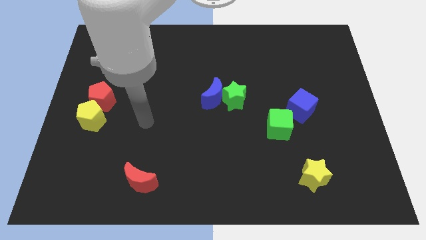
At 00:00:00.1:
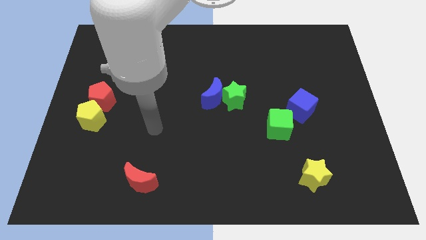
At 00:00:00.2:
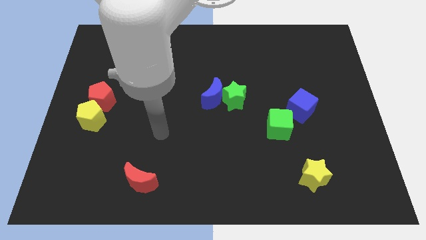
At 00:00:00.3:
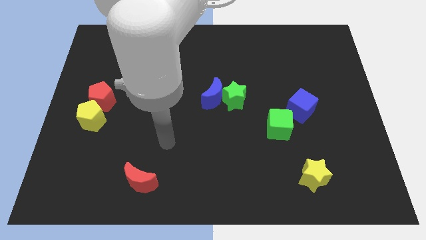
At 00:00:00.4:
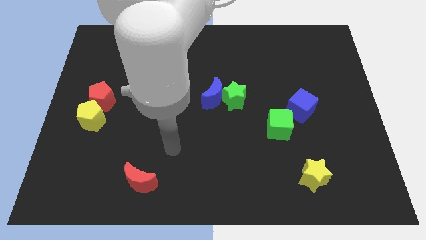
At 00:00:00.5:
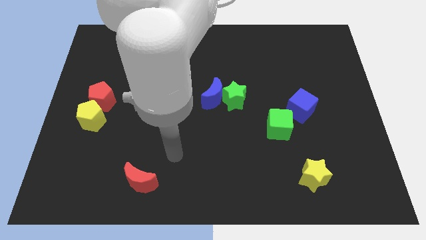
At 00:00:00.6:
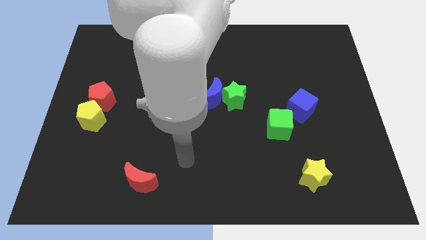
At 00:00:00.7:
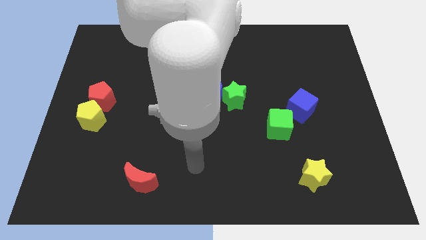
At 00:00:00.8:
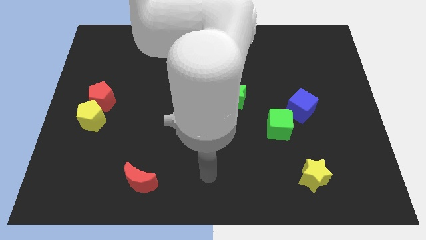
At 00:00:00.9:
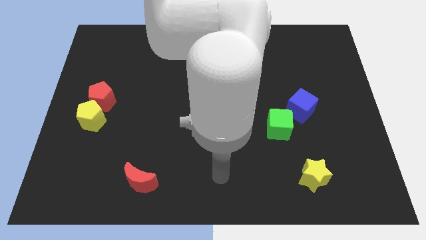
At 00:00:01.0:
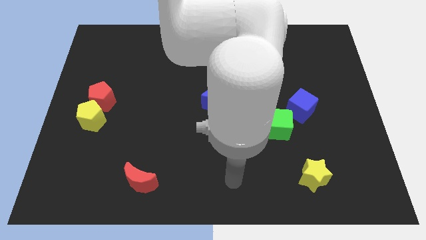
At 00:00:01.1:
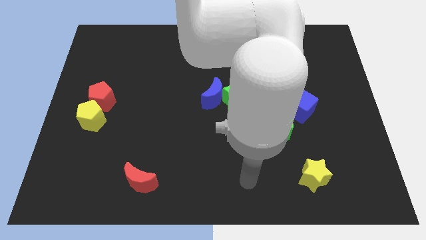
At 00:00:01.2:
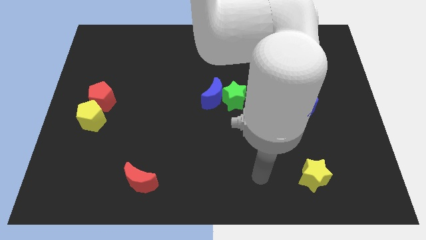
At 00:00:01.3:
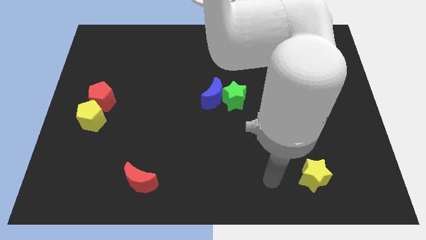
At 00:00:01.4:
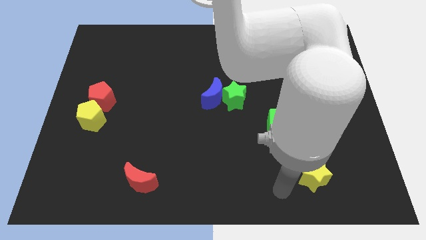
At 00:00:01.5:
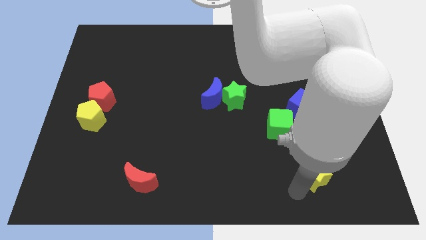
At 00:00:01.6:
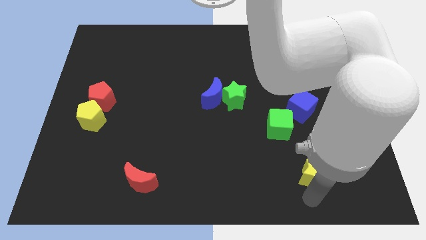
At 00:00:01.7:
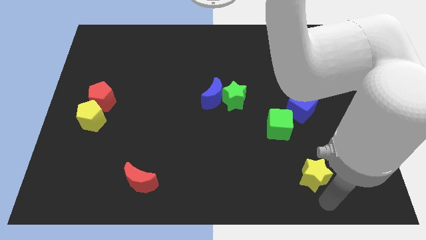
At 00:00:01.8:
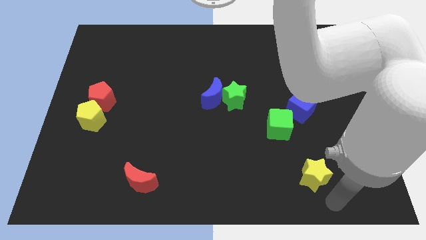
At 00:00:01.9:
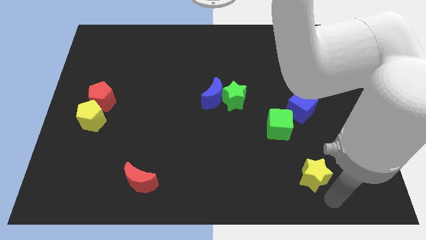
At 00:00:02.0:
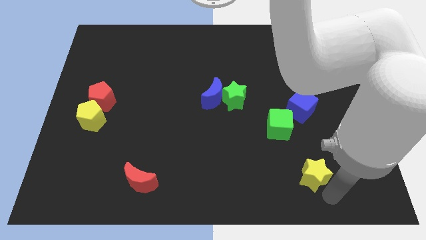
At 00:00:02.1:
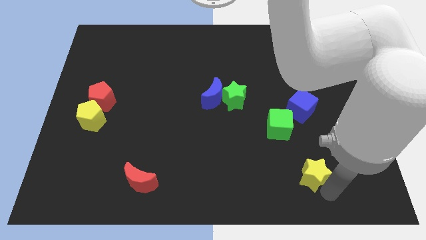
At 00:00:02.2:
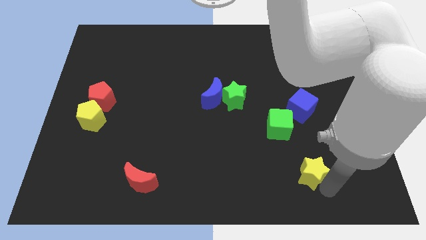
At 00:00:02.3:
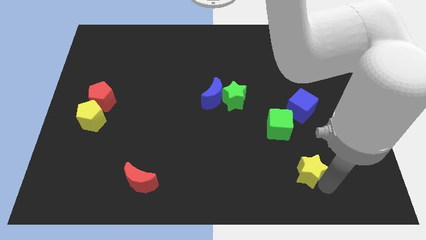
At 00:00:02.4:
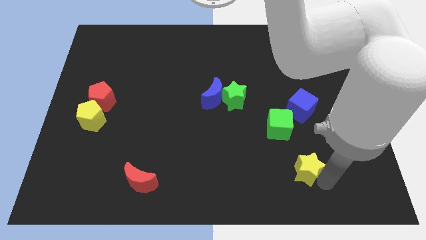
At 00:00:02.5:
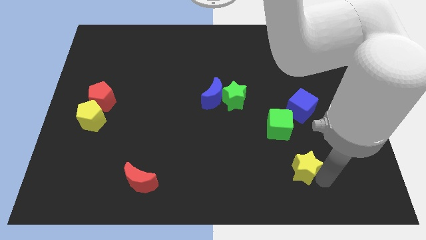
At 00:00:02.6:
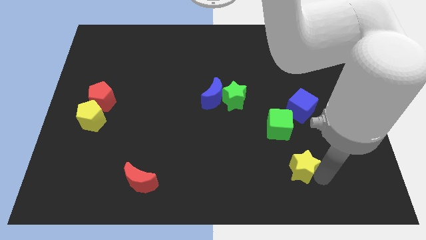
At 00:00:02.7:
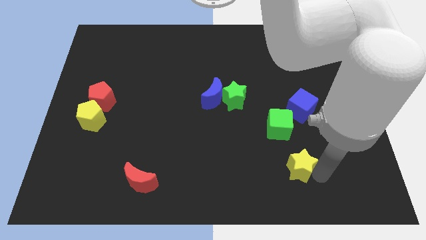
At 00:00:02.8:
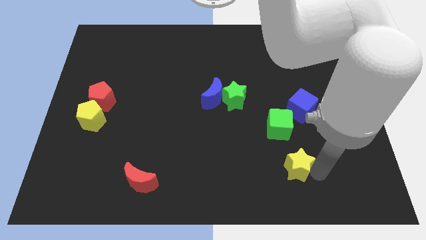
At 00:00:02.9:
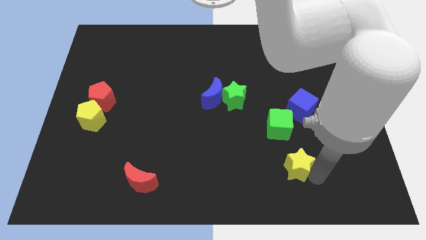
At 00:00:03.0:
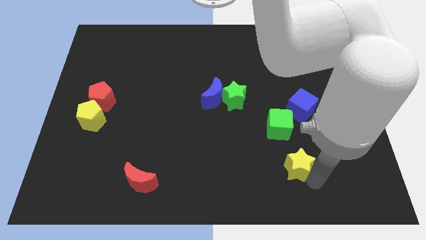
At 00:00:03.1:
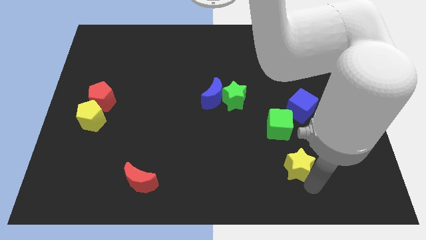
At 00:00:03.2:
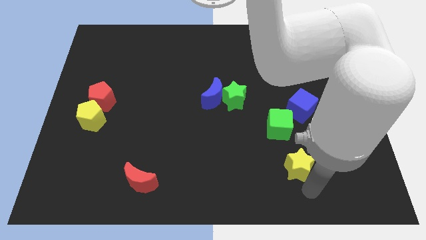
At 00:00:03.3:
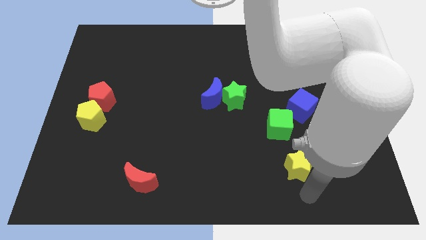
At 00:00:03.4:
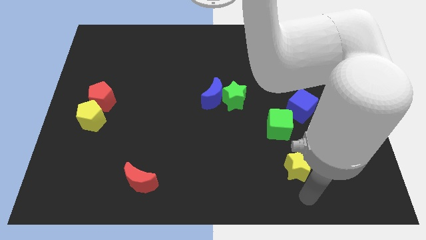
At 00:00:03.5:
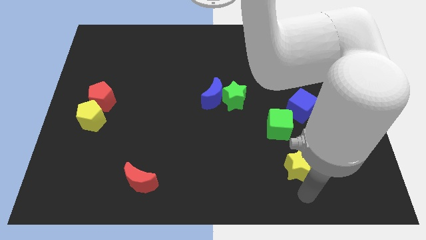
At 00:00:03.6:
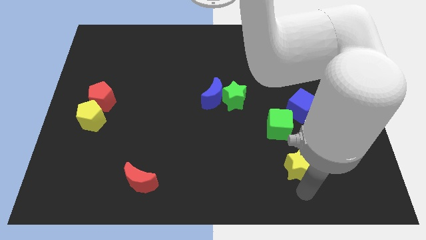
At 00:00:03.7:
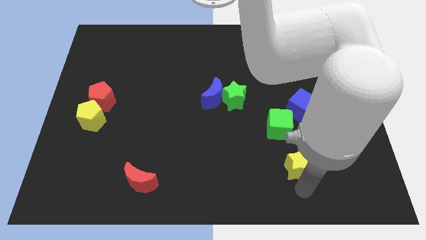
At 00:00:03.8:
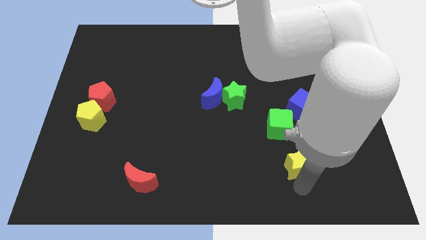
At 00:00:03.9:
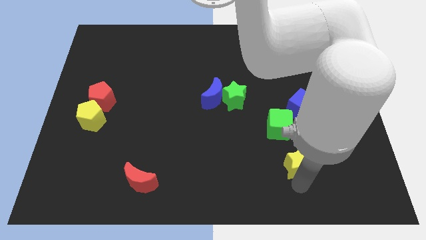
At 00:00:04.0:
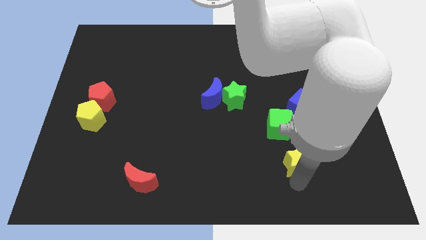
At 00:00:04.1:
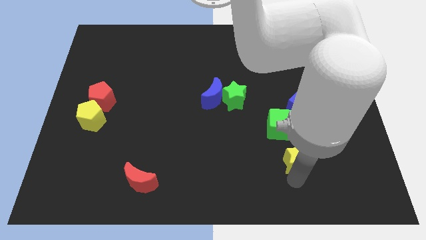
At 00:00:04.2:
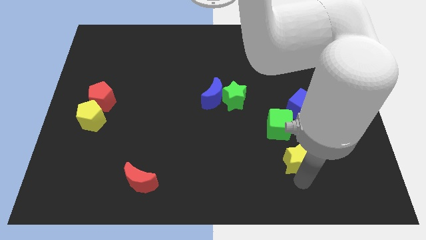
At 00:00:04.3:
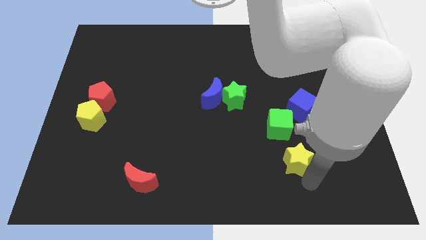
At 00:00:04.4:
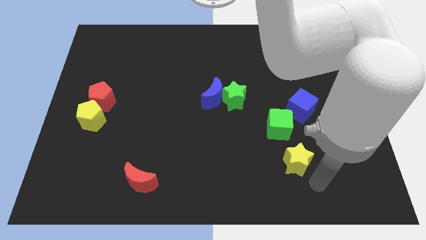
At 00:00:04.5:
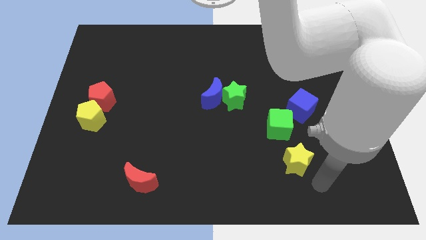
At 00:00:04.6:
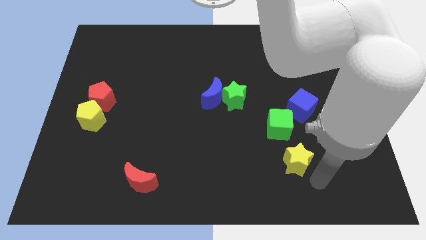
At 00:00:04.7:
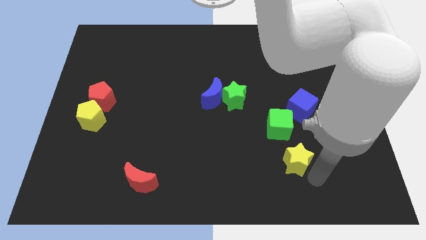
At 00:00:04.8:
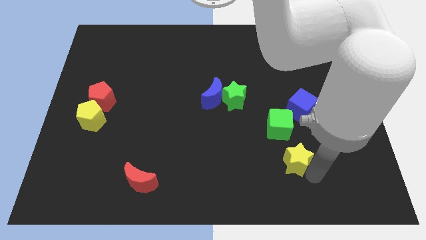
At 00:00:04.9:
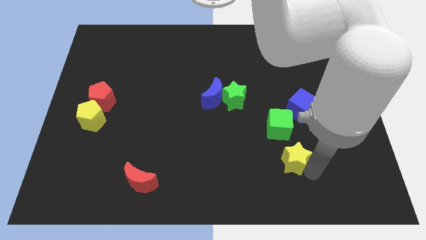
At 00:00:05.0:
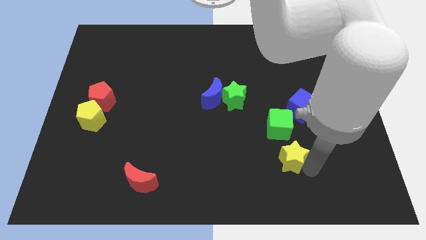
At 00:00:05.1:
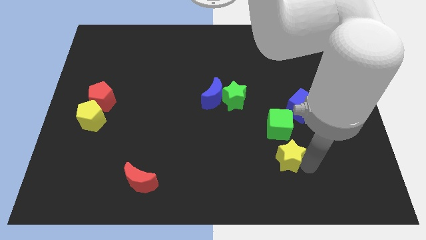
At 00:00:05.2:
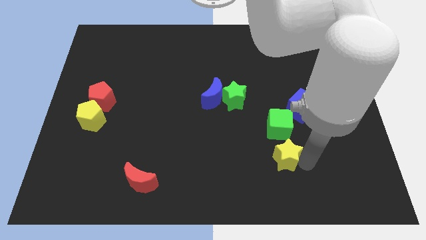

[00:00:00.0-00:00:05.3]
slightly slide the yellow star up and to the left

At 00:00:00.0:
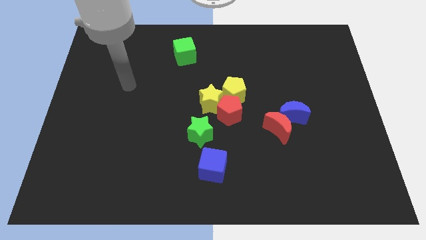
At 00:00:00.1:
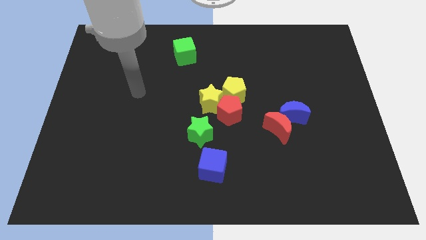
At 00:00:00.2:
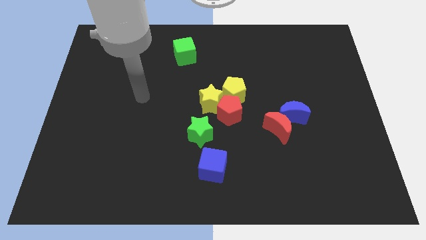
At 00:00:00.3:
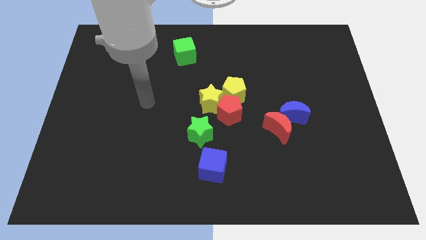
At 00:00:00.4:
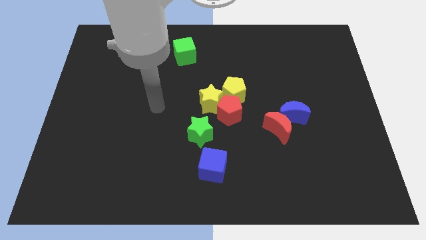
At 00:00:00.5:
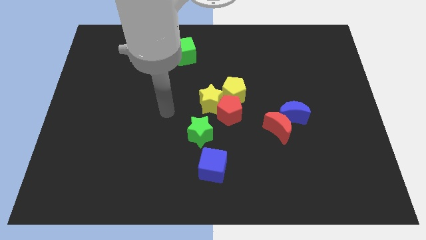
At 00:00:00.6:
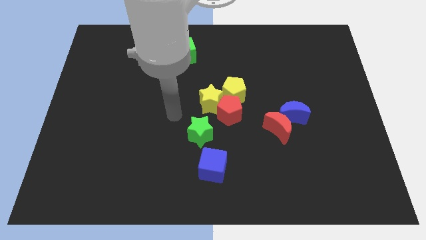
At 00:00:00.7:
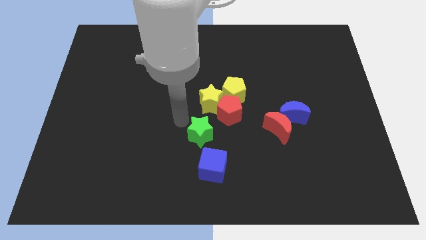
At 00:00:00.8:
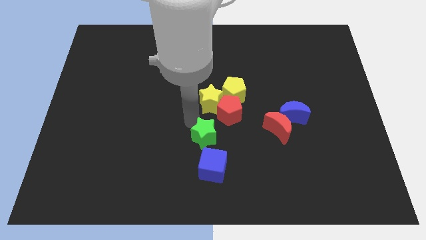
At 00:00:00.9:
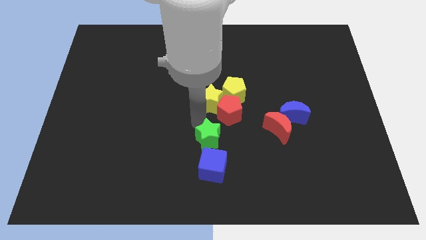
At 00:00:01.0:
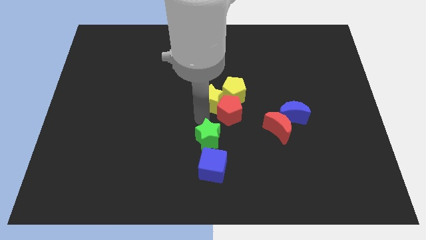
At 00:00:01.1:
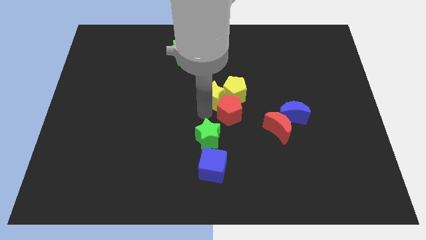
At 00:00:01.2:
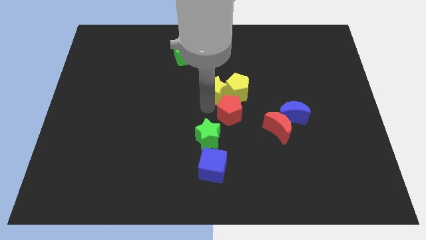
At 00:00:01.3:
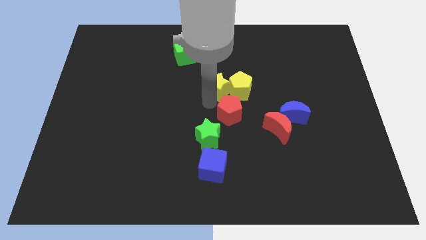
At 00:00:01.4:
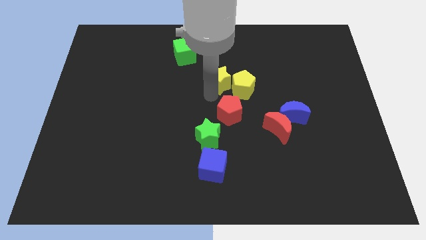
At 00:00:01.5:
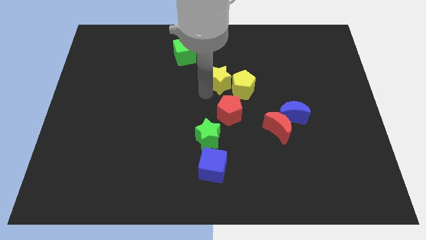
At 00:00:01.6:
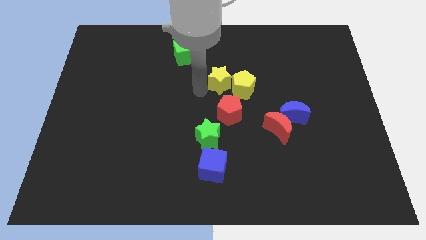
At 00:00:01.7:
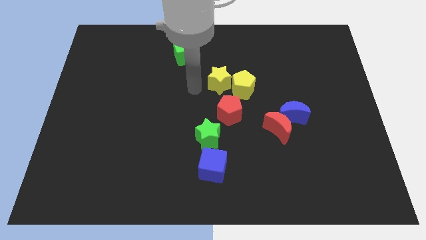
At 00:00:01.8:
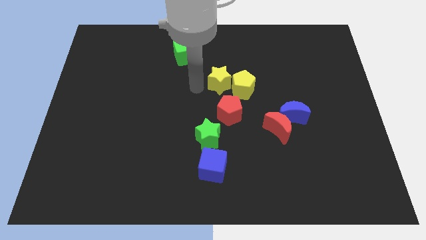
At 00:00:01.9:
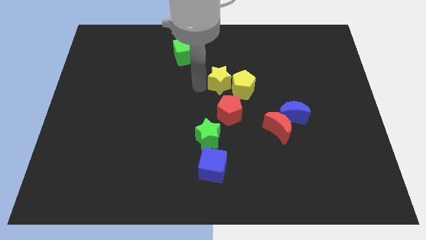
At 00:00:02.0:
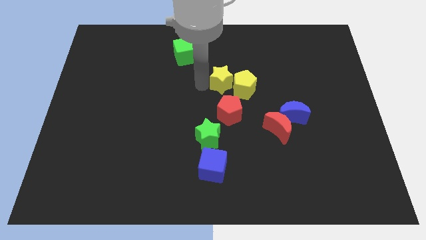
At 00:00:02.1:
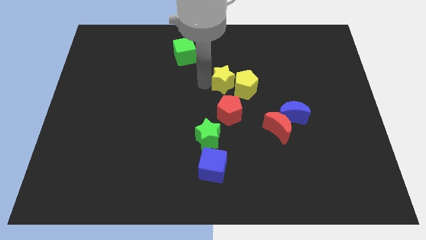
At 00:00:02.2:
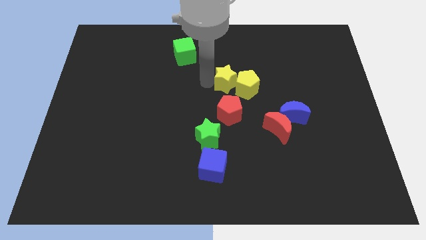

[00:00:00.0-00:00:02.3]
slightly slide the yellow star upwards and to the right

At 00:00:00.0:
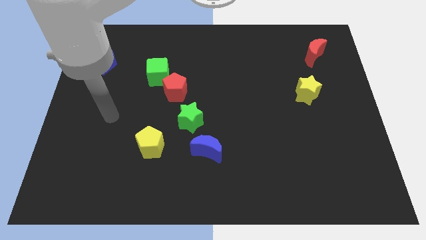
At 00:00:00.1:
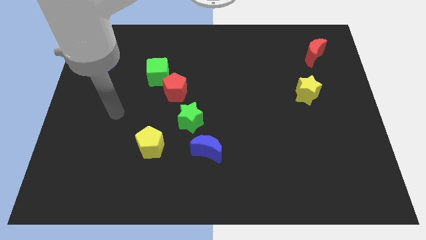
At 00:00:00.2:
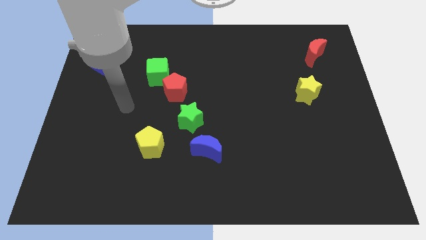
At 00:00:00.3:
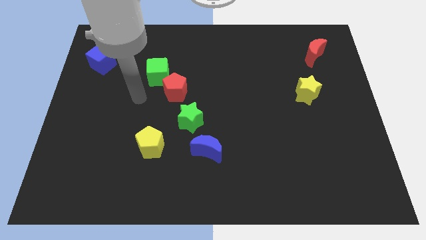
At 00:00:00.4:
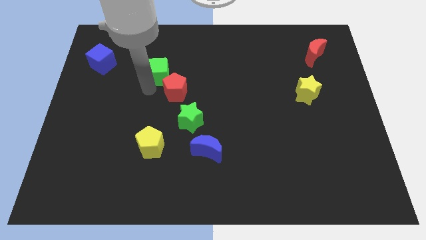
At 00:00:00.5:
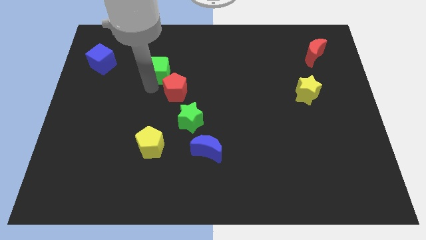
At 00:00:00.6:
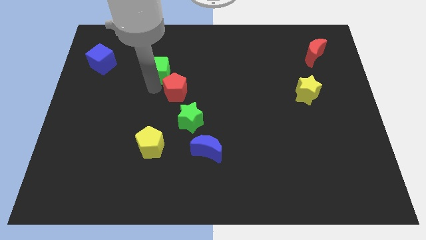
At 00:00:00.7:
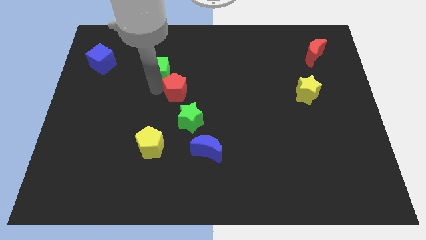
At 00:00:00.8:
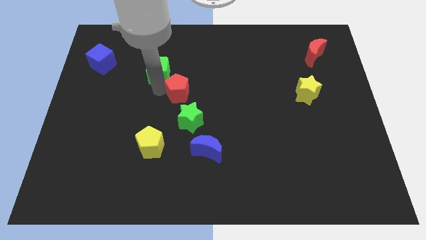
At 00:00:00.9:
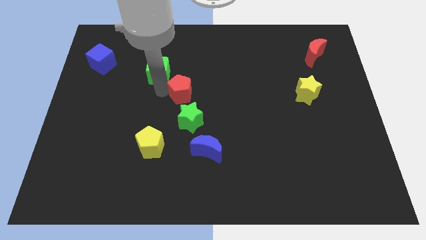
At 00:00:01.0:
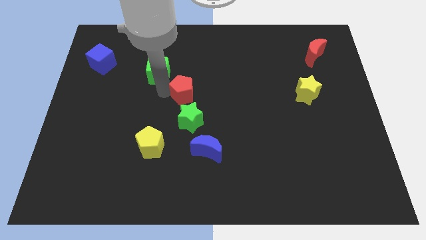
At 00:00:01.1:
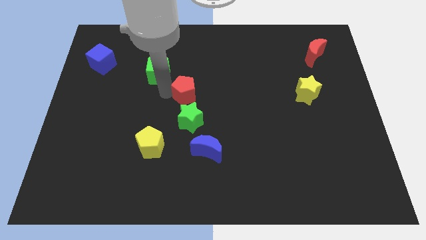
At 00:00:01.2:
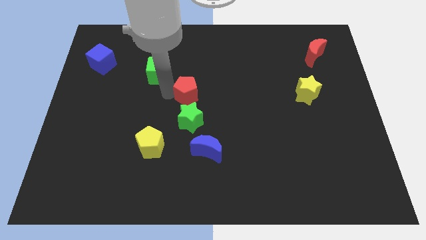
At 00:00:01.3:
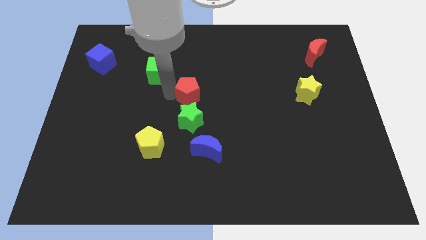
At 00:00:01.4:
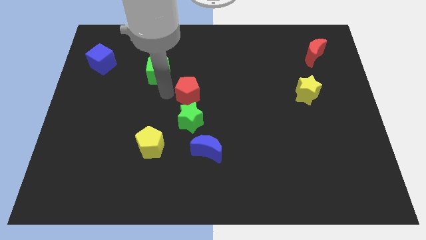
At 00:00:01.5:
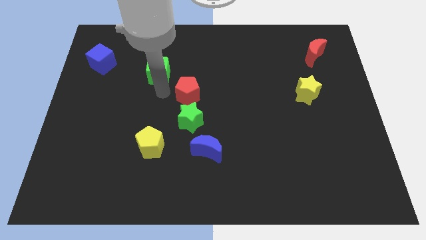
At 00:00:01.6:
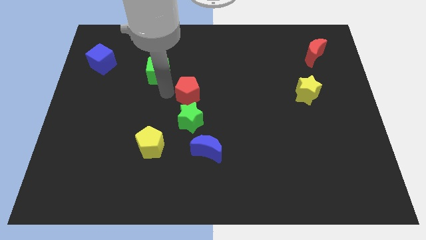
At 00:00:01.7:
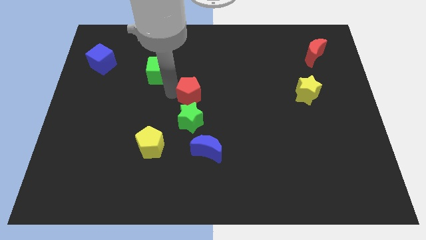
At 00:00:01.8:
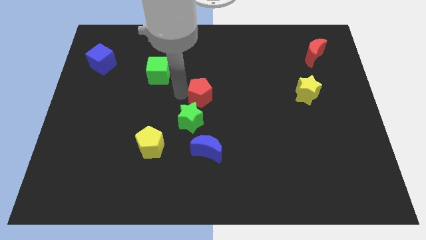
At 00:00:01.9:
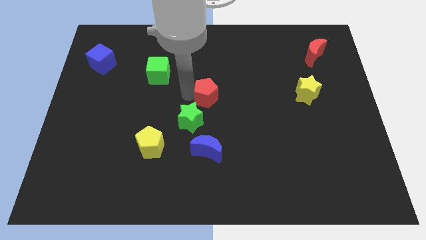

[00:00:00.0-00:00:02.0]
move the red pentagon right a little bit
